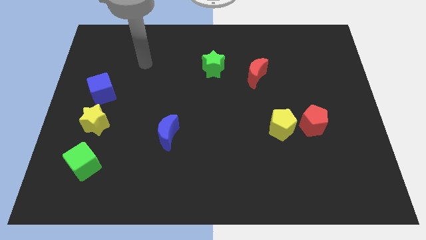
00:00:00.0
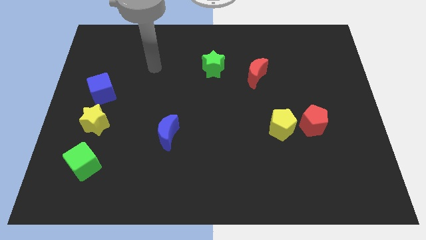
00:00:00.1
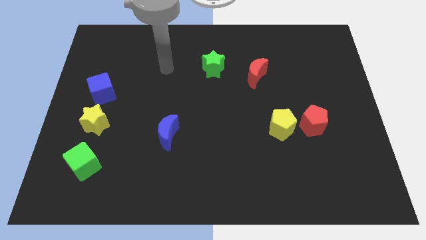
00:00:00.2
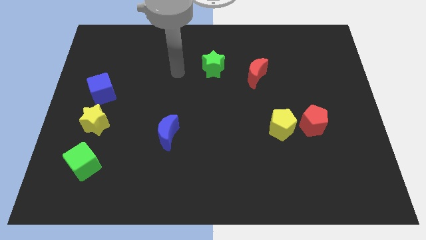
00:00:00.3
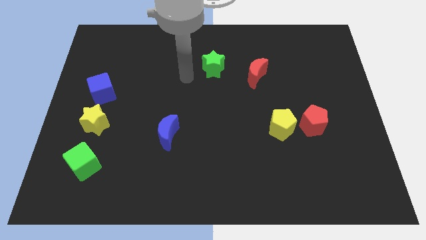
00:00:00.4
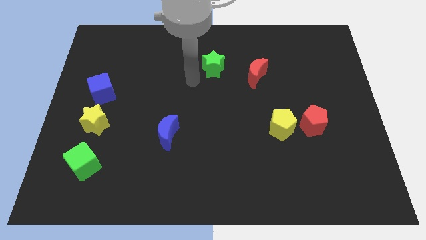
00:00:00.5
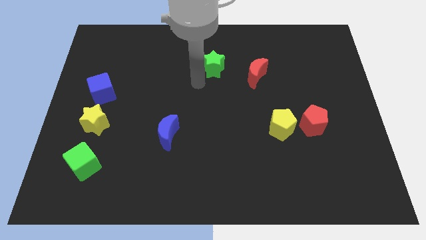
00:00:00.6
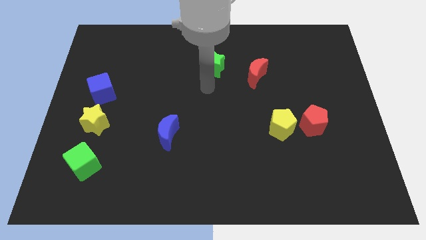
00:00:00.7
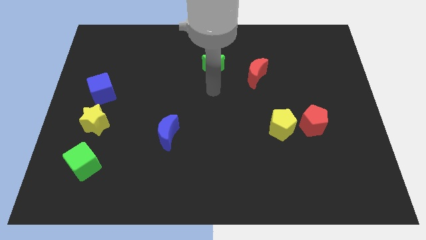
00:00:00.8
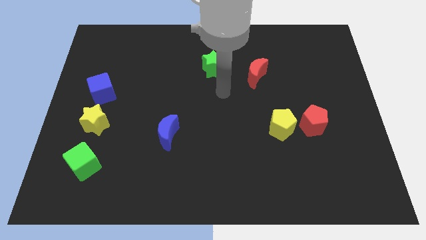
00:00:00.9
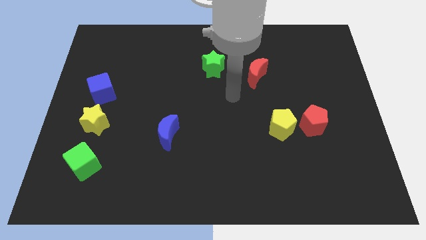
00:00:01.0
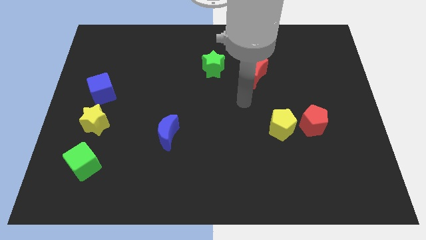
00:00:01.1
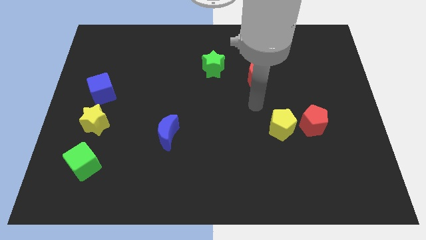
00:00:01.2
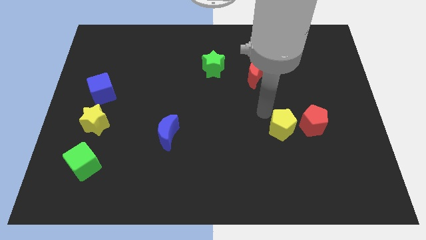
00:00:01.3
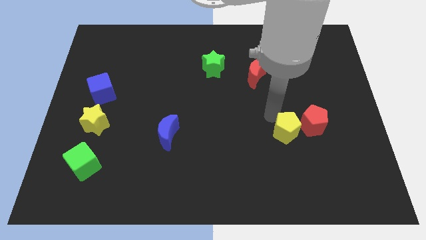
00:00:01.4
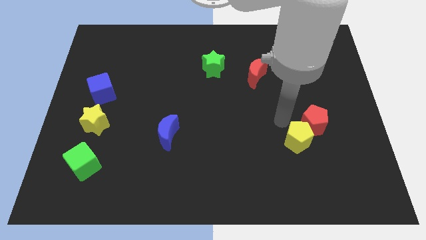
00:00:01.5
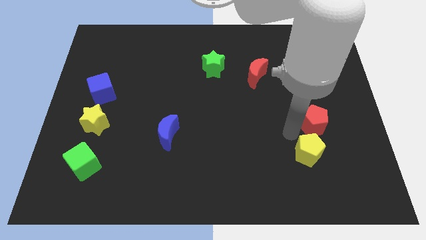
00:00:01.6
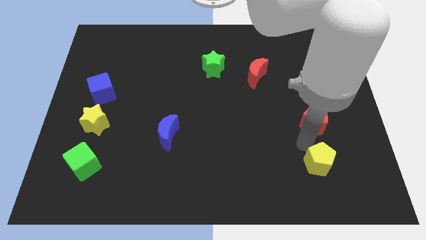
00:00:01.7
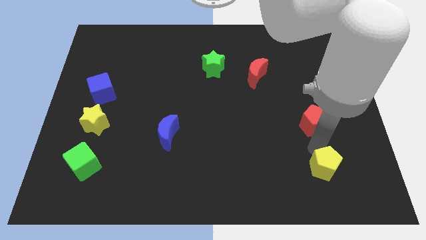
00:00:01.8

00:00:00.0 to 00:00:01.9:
separate the red pentagon from the yellow pentagon

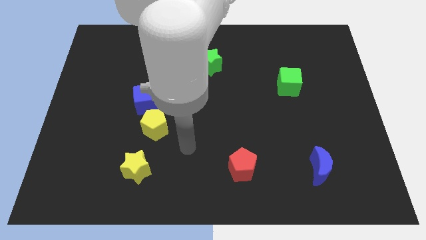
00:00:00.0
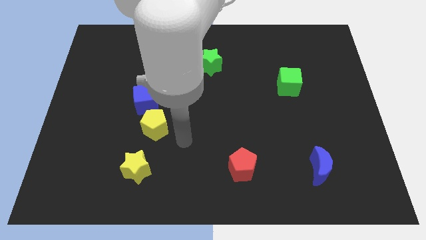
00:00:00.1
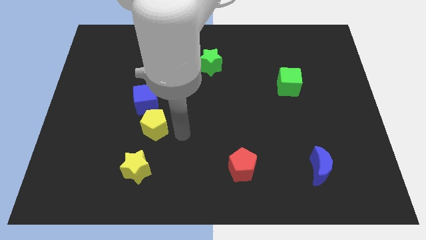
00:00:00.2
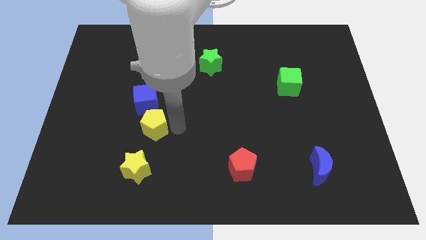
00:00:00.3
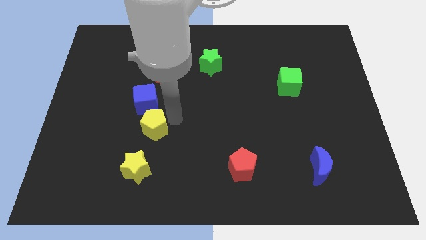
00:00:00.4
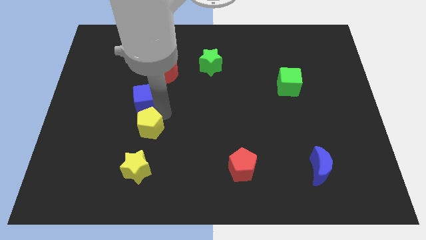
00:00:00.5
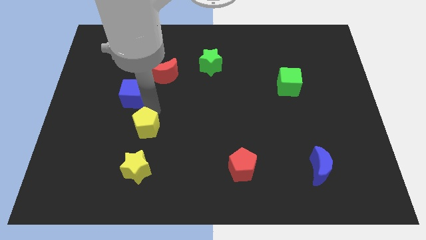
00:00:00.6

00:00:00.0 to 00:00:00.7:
separate the yellow pentagon from the blue cube

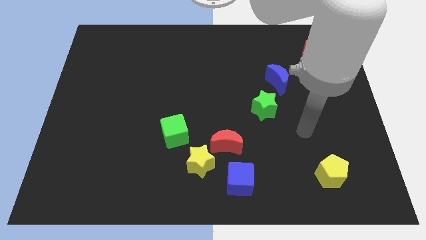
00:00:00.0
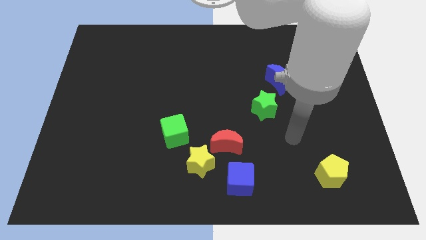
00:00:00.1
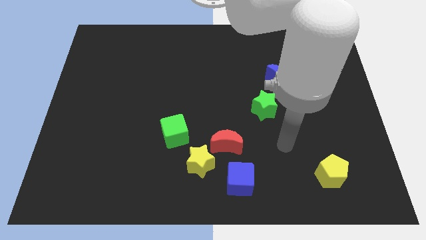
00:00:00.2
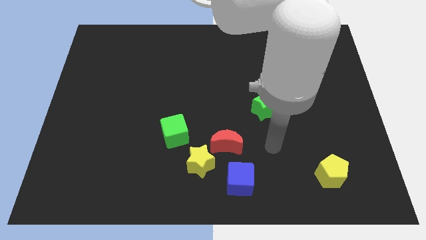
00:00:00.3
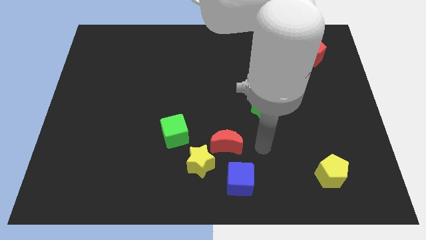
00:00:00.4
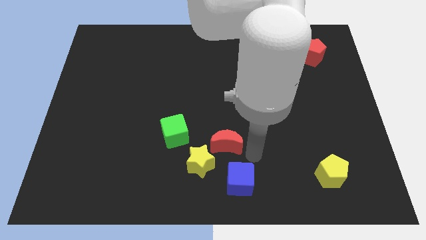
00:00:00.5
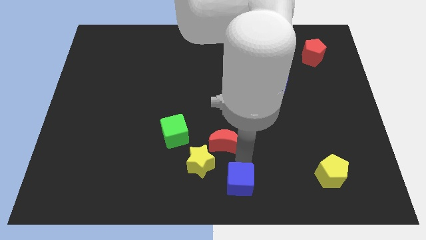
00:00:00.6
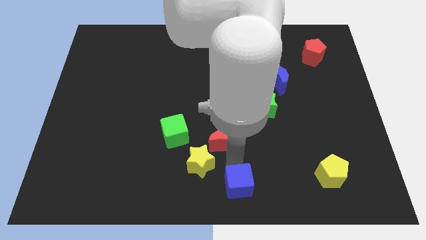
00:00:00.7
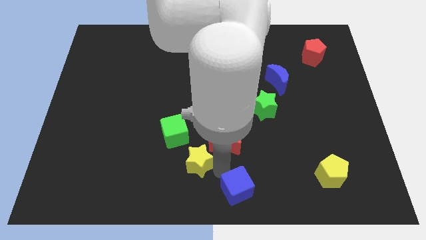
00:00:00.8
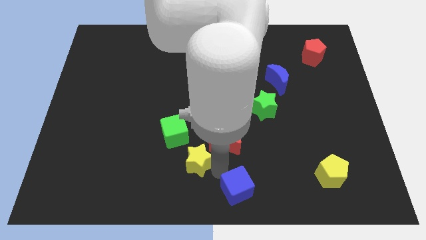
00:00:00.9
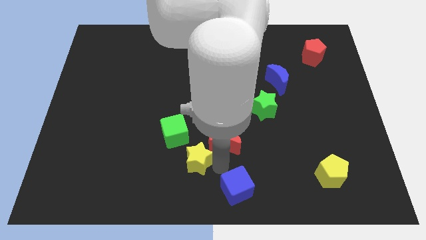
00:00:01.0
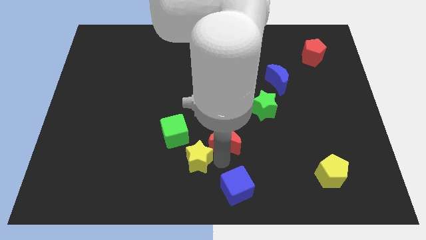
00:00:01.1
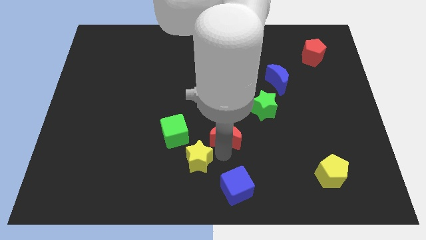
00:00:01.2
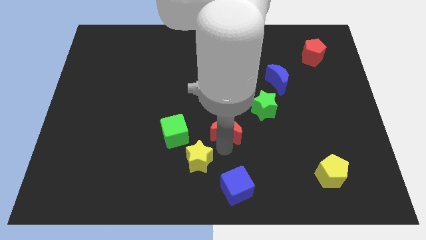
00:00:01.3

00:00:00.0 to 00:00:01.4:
pull the red moon apart from the yellow star and blue cube

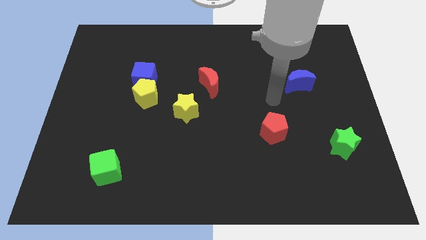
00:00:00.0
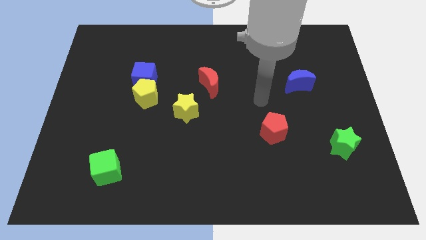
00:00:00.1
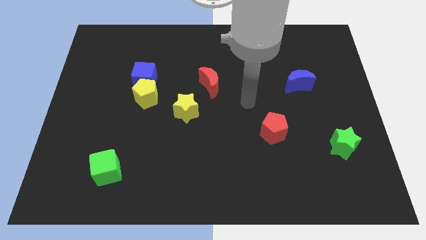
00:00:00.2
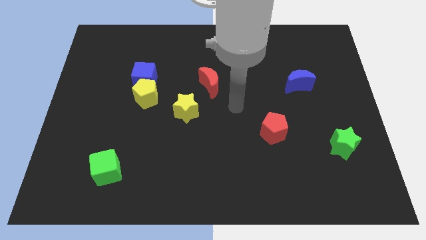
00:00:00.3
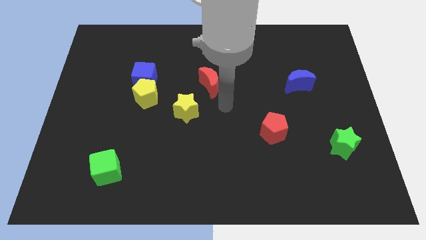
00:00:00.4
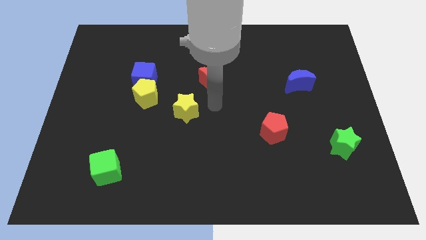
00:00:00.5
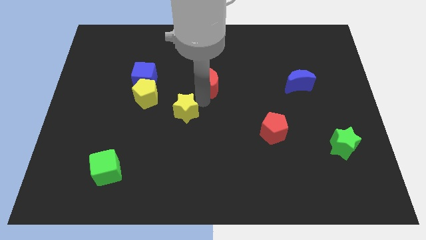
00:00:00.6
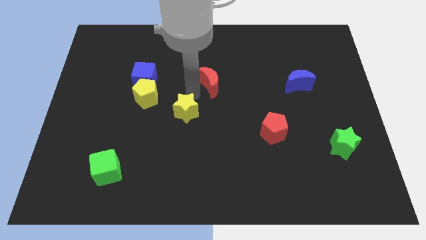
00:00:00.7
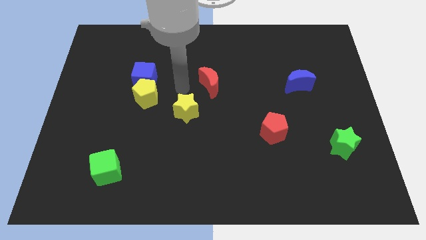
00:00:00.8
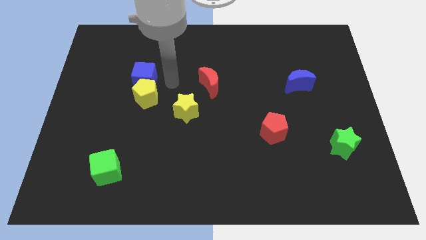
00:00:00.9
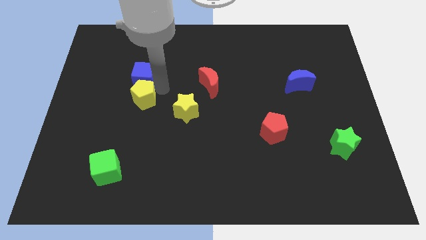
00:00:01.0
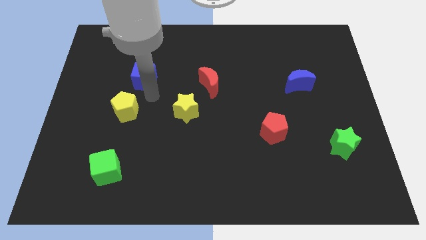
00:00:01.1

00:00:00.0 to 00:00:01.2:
separate the blue cube from the yellow pentagon

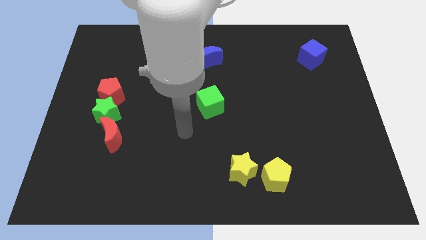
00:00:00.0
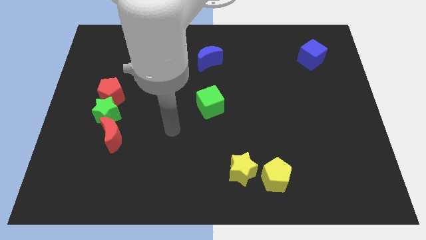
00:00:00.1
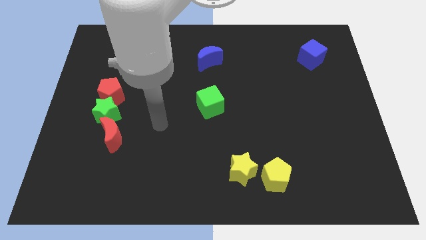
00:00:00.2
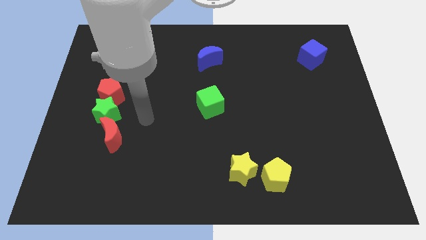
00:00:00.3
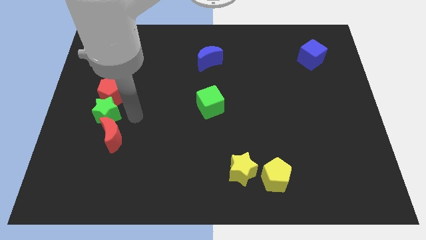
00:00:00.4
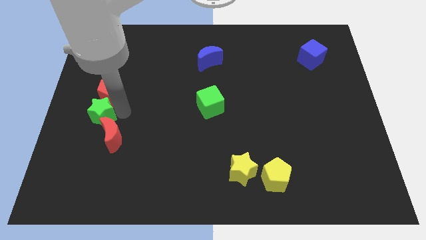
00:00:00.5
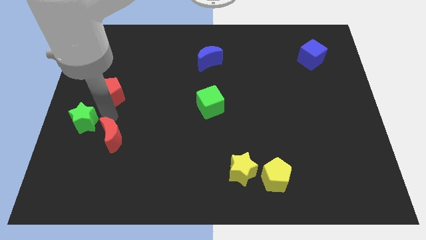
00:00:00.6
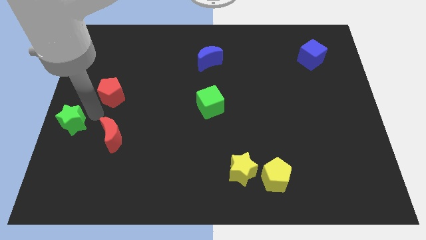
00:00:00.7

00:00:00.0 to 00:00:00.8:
pull the red pentagon apart from the green star

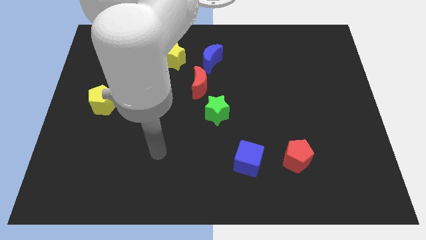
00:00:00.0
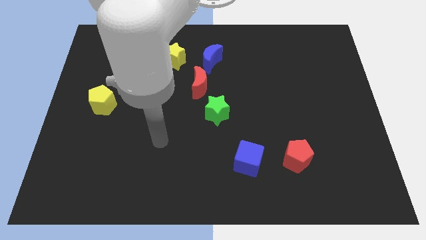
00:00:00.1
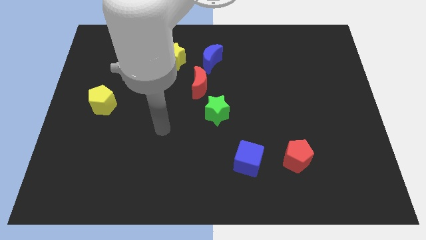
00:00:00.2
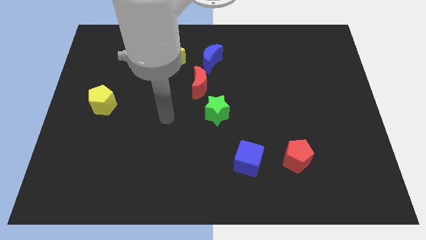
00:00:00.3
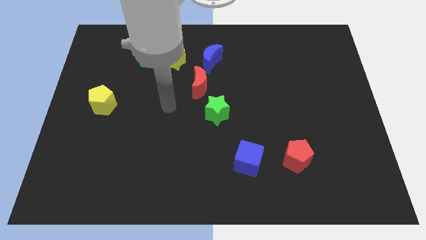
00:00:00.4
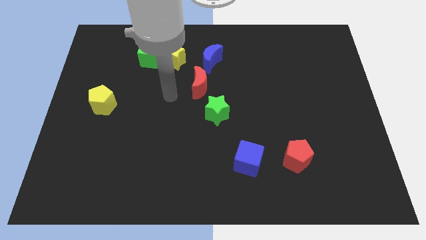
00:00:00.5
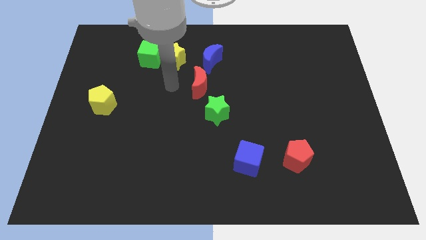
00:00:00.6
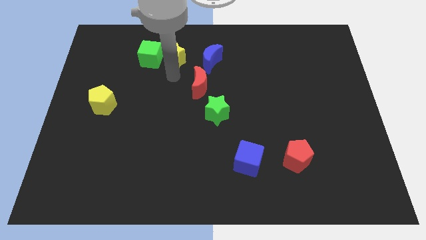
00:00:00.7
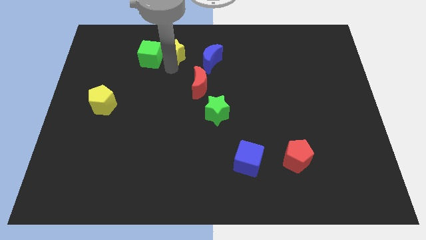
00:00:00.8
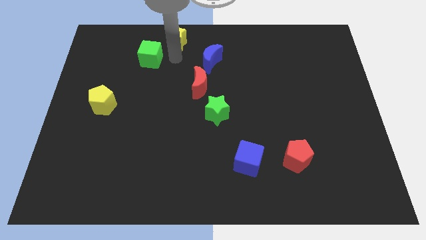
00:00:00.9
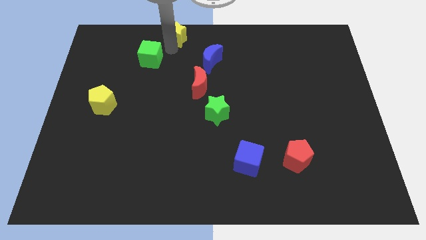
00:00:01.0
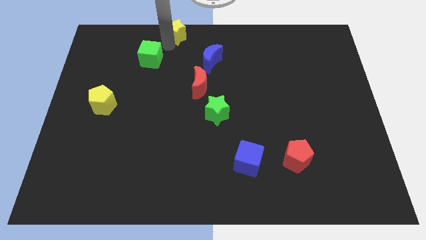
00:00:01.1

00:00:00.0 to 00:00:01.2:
pull the green cube apart from the yellow star

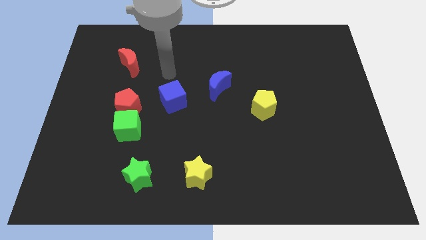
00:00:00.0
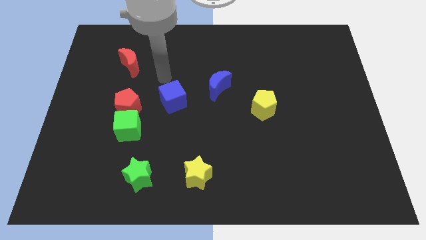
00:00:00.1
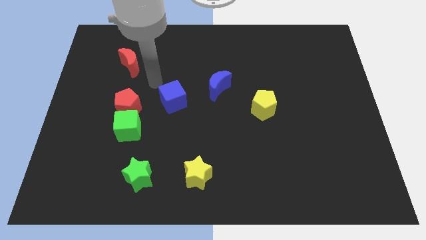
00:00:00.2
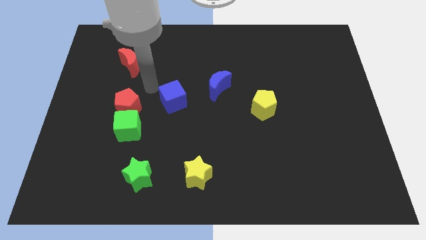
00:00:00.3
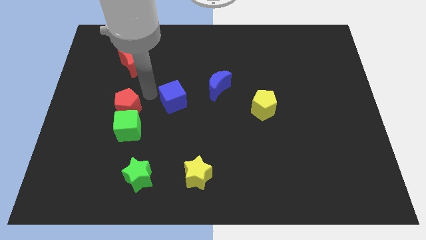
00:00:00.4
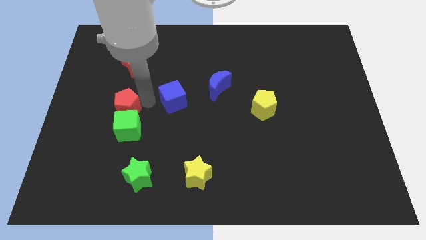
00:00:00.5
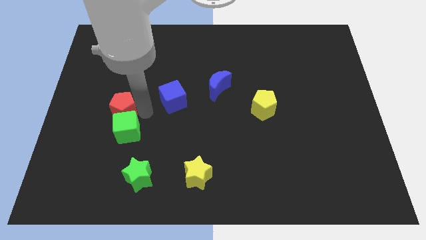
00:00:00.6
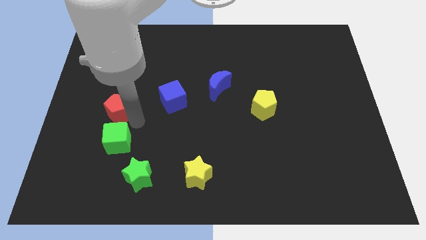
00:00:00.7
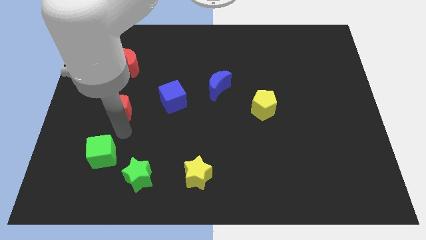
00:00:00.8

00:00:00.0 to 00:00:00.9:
separate the red pentagon from the green cube

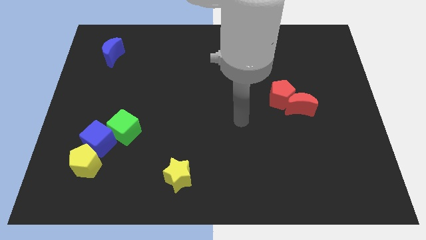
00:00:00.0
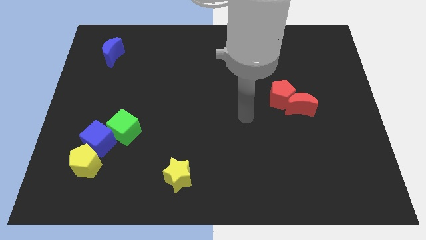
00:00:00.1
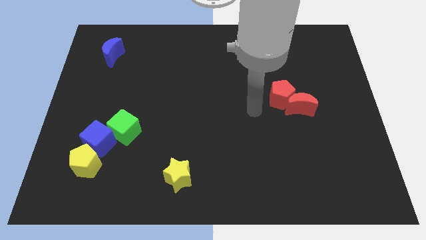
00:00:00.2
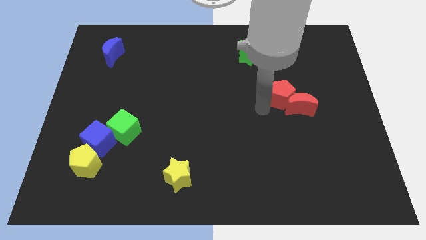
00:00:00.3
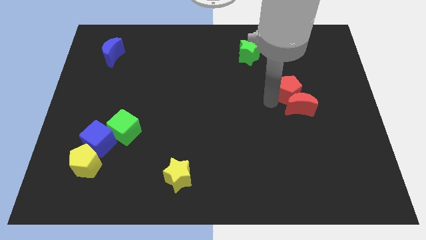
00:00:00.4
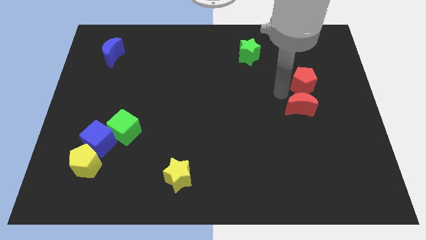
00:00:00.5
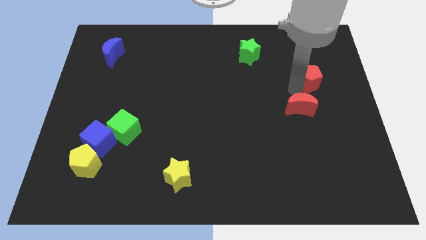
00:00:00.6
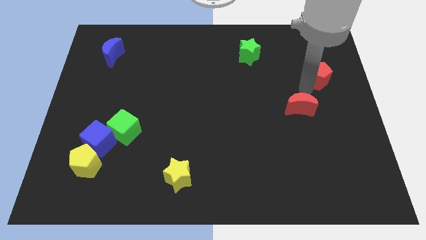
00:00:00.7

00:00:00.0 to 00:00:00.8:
separate the red moon from the red pentagon

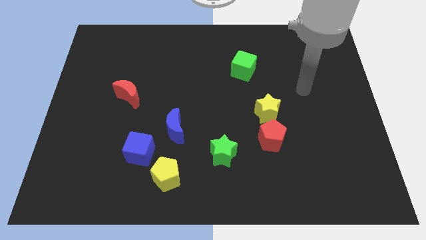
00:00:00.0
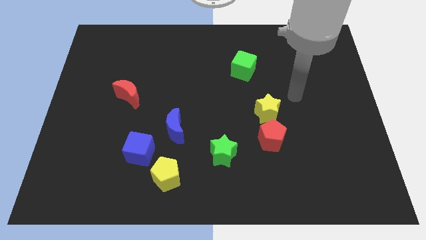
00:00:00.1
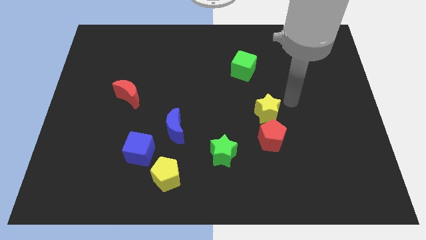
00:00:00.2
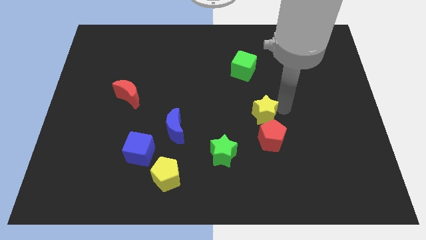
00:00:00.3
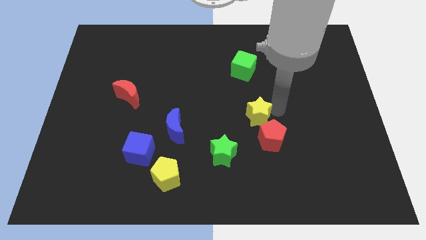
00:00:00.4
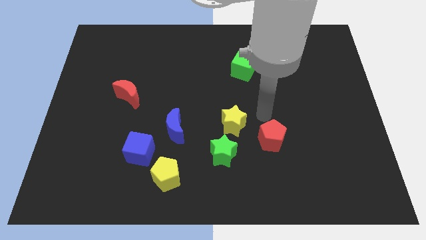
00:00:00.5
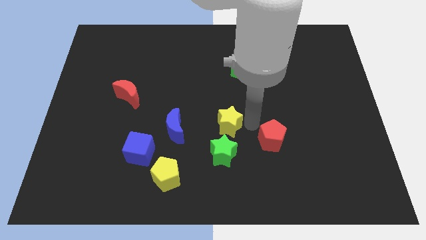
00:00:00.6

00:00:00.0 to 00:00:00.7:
pull the red pentagon apart from the yellow star
